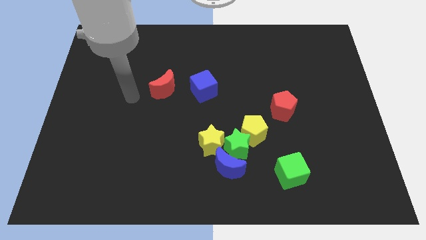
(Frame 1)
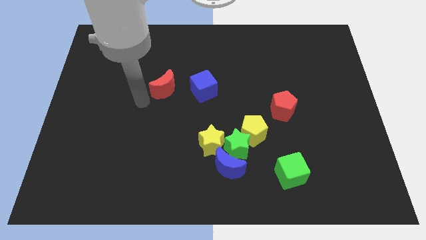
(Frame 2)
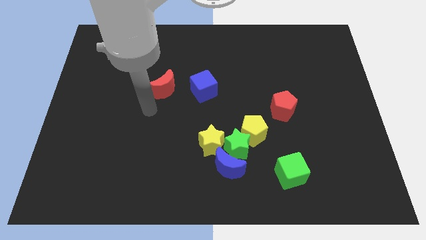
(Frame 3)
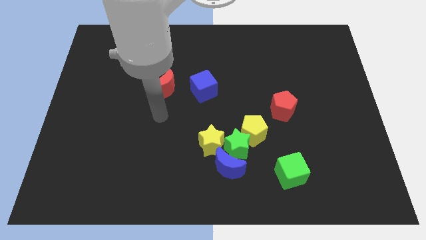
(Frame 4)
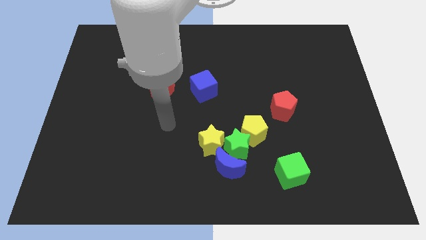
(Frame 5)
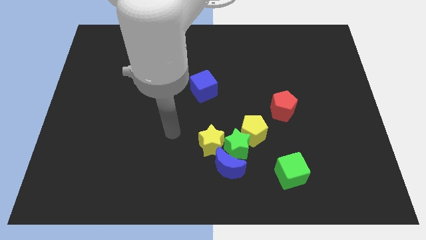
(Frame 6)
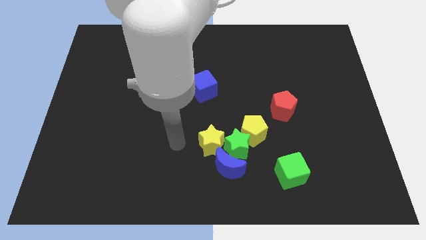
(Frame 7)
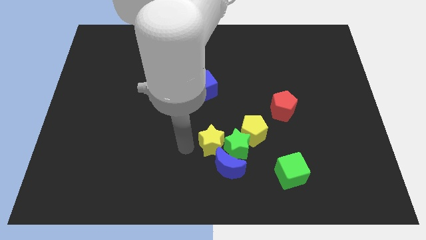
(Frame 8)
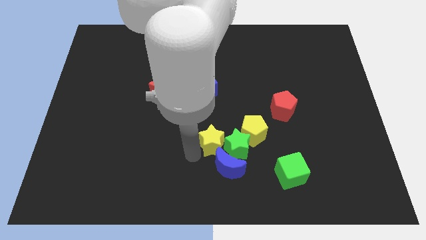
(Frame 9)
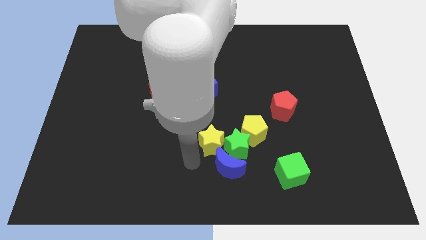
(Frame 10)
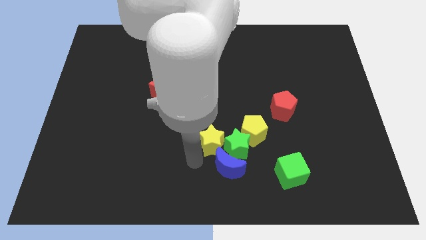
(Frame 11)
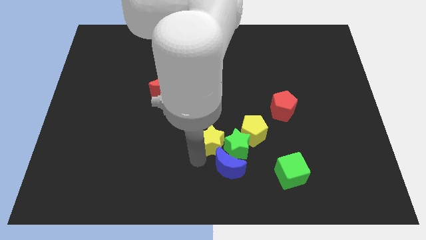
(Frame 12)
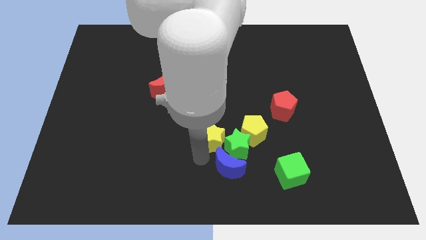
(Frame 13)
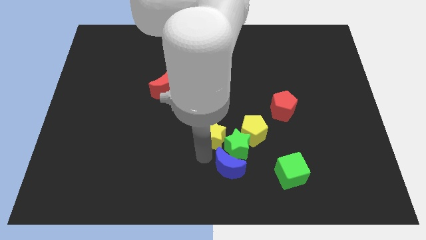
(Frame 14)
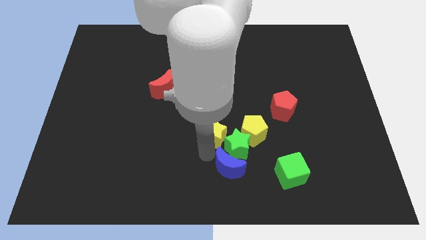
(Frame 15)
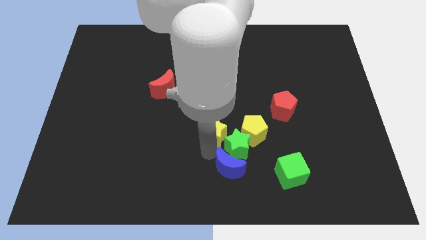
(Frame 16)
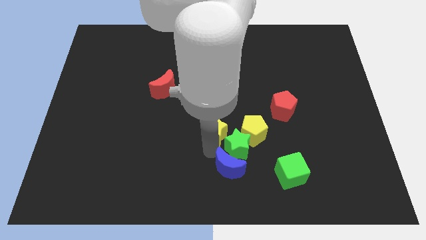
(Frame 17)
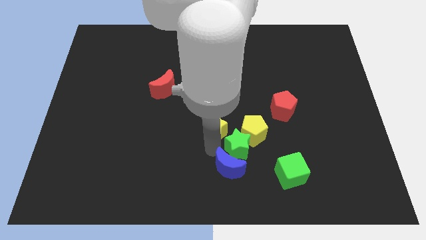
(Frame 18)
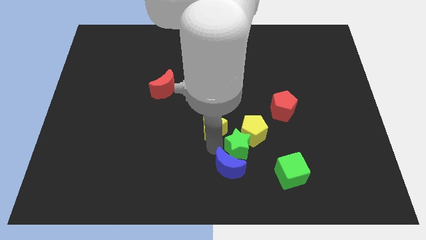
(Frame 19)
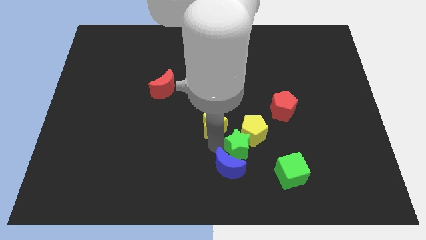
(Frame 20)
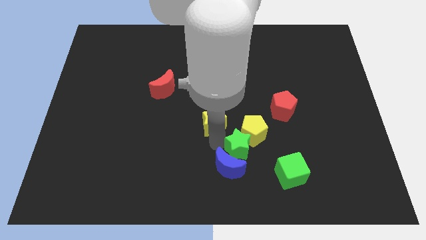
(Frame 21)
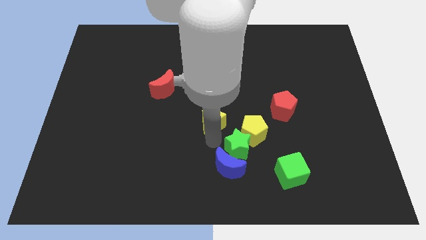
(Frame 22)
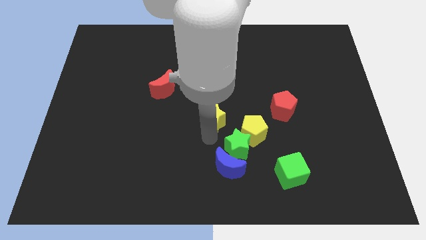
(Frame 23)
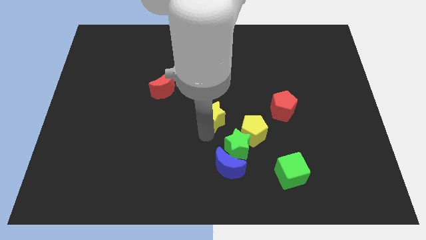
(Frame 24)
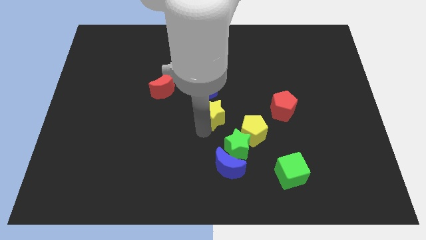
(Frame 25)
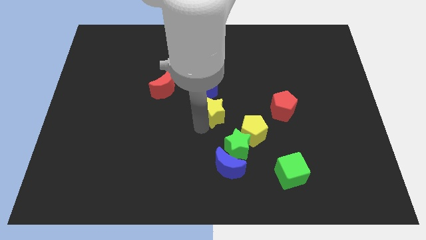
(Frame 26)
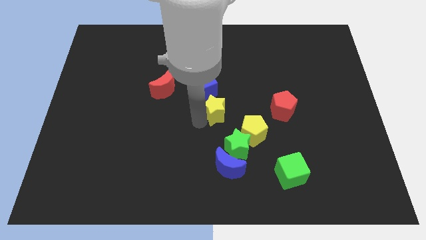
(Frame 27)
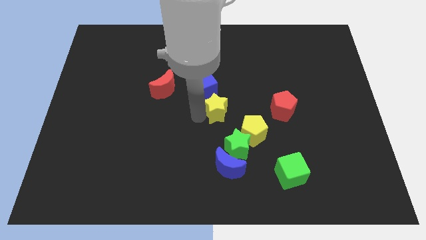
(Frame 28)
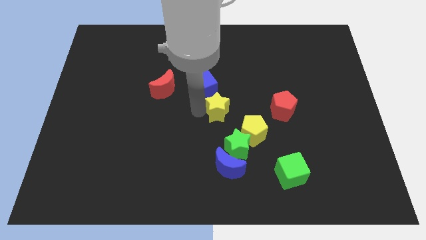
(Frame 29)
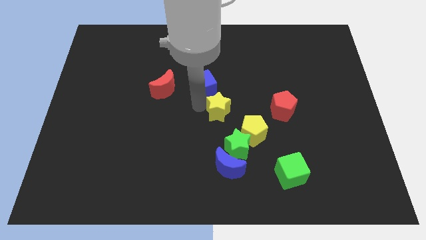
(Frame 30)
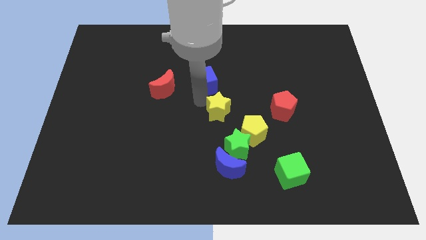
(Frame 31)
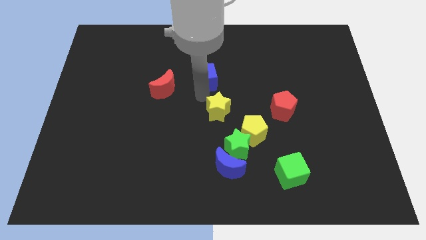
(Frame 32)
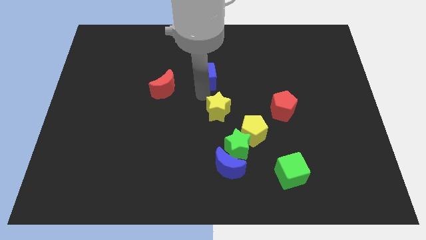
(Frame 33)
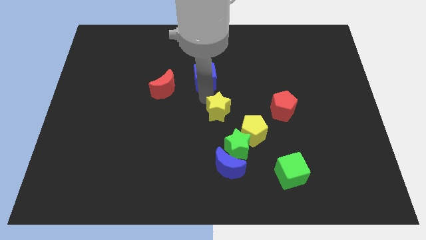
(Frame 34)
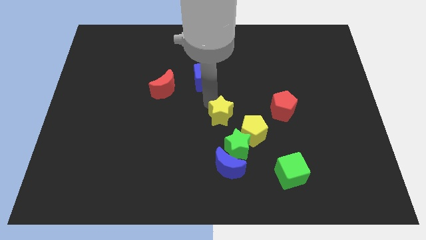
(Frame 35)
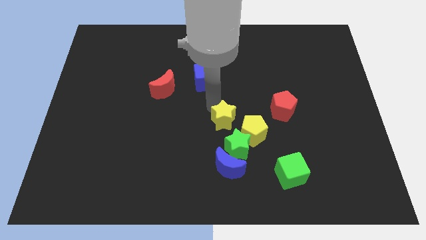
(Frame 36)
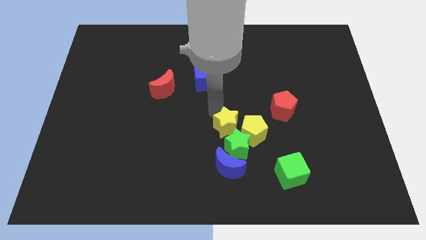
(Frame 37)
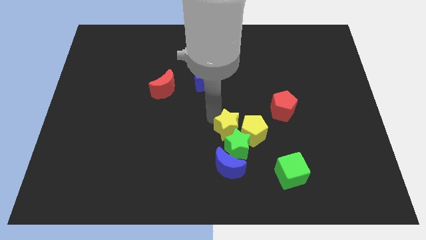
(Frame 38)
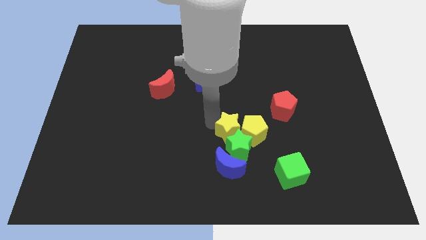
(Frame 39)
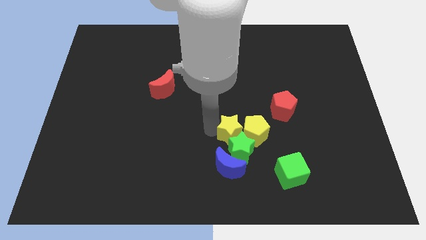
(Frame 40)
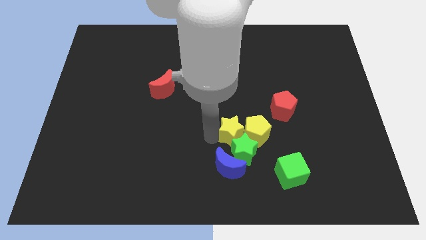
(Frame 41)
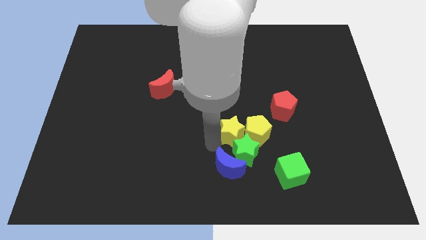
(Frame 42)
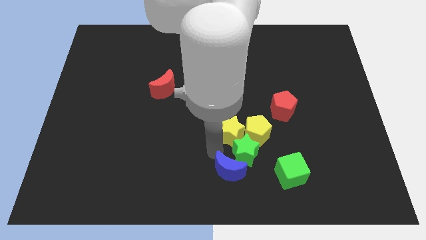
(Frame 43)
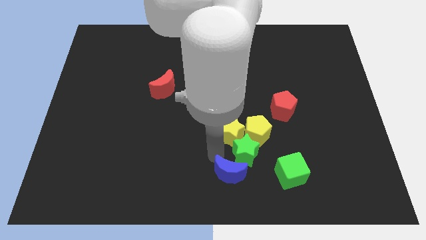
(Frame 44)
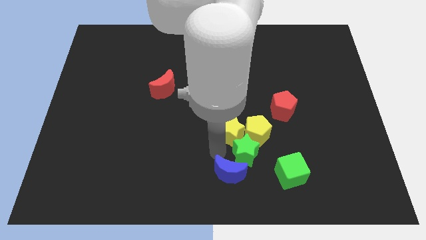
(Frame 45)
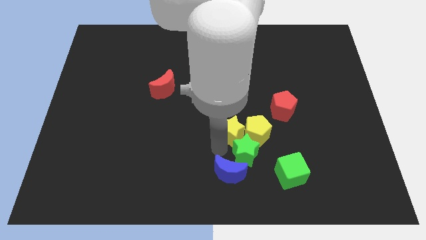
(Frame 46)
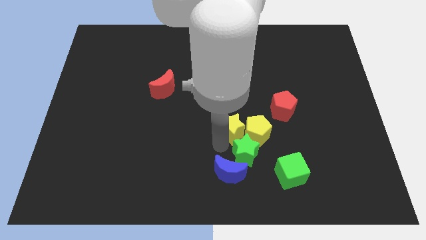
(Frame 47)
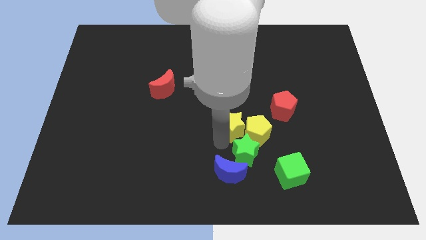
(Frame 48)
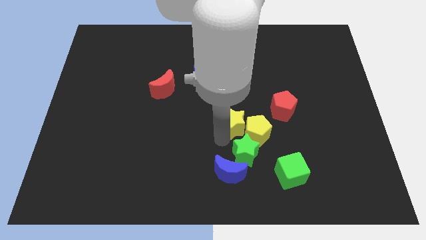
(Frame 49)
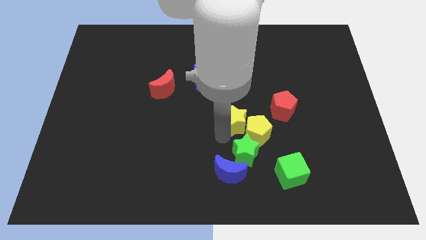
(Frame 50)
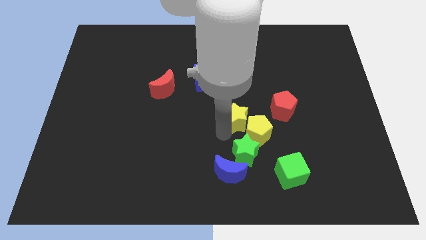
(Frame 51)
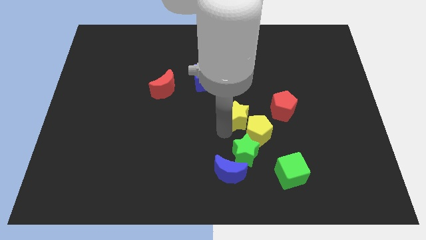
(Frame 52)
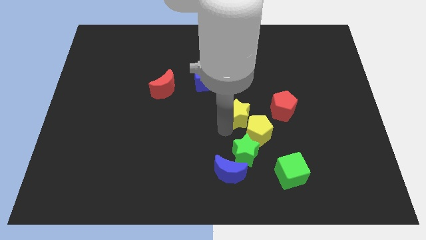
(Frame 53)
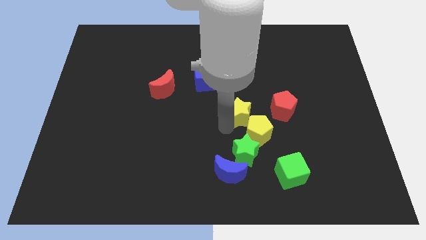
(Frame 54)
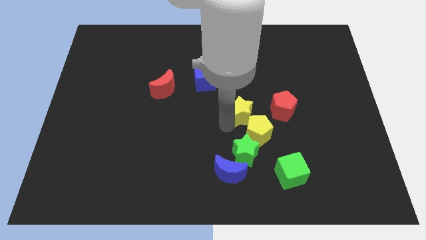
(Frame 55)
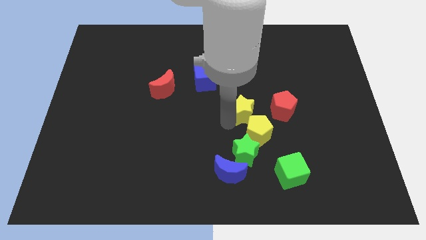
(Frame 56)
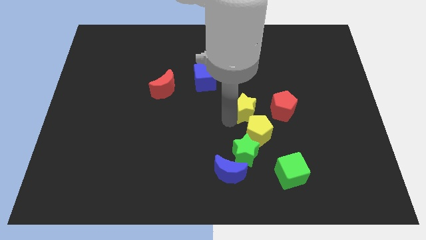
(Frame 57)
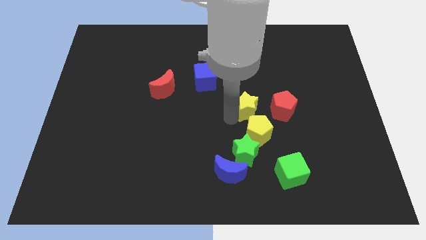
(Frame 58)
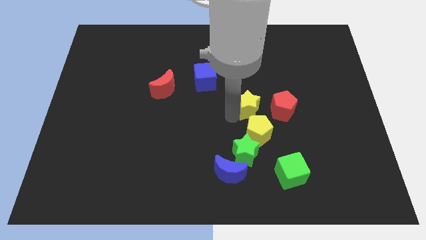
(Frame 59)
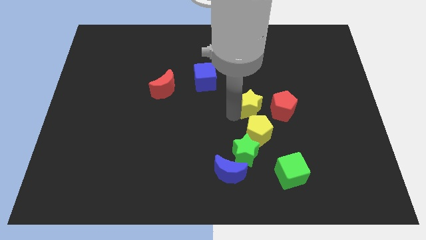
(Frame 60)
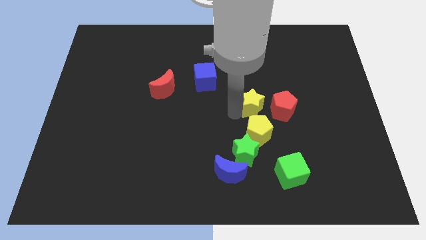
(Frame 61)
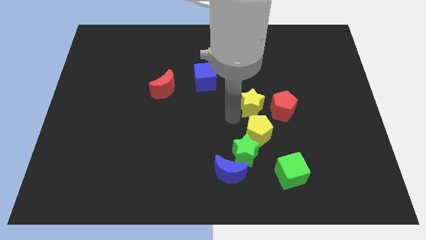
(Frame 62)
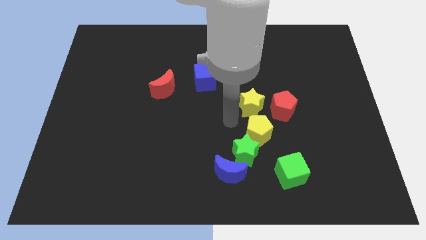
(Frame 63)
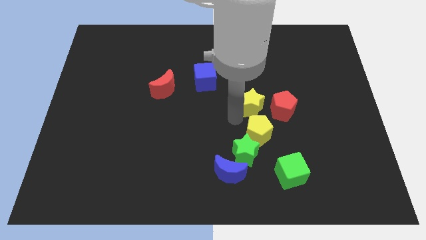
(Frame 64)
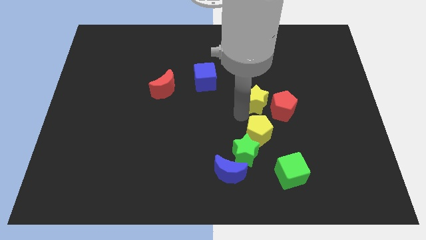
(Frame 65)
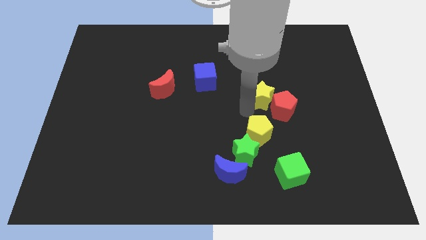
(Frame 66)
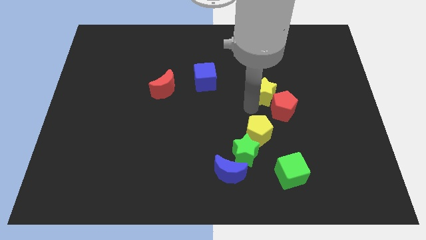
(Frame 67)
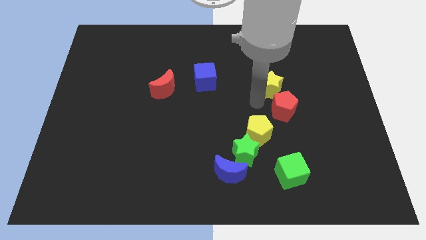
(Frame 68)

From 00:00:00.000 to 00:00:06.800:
move the yellow star upwards and then right

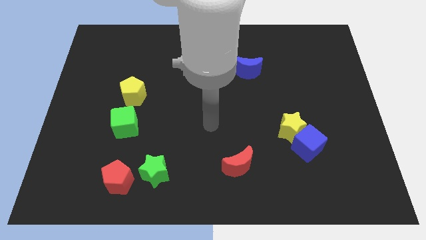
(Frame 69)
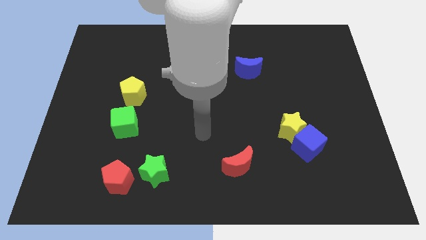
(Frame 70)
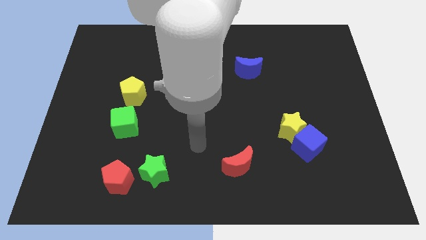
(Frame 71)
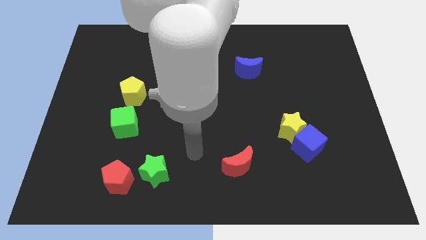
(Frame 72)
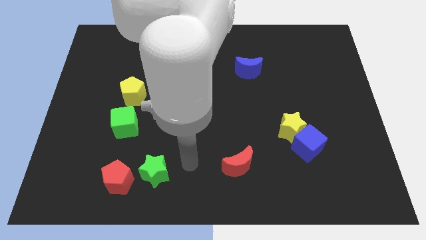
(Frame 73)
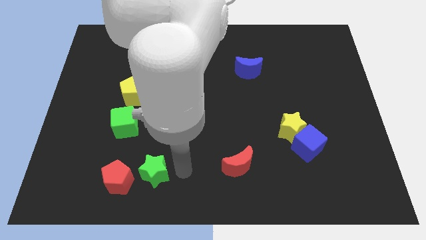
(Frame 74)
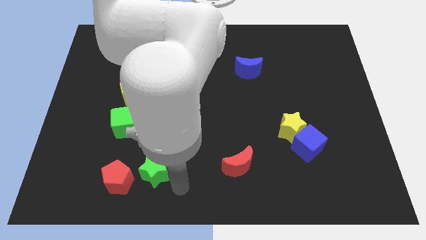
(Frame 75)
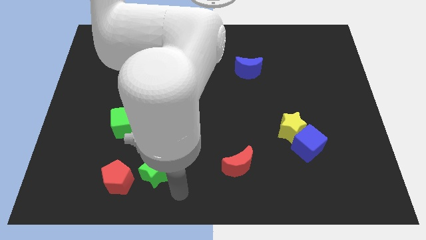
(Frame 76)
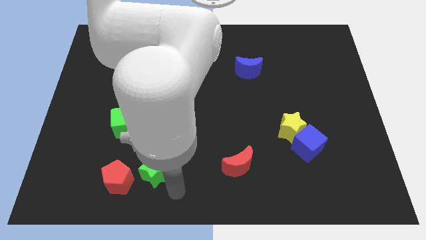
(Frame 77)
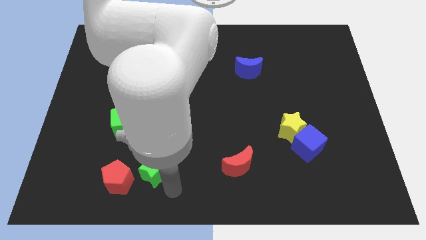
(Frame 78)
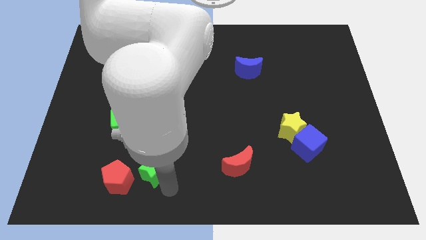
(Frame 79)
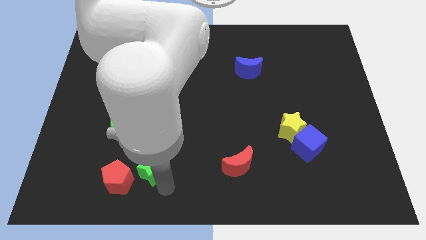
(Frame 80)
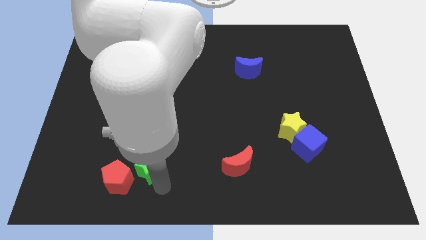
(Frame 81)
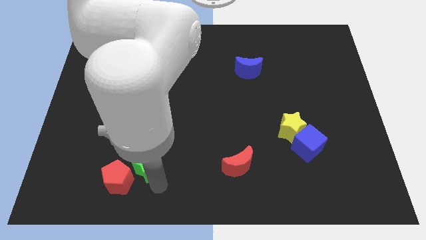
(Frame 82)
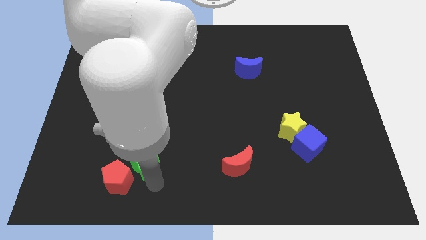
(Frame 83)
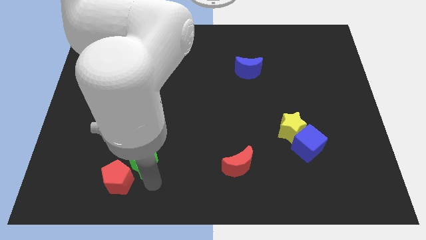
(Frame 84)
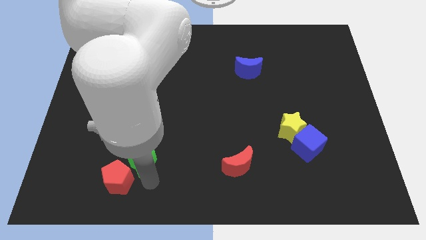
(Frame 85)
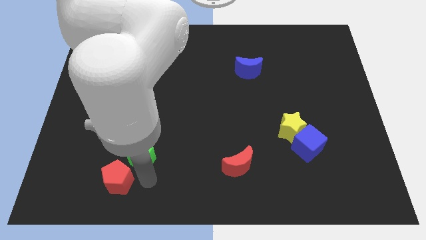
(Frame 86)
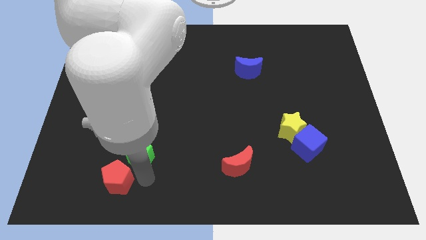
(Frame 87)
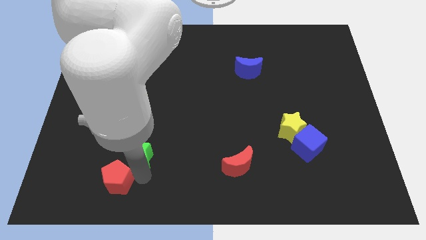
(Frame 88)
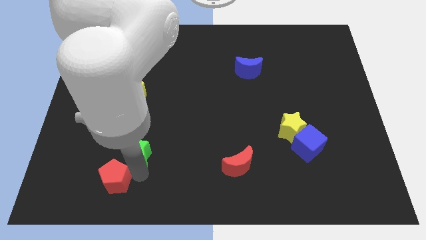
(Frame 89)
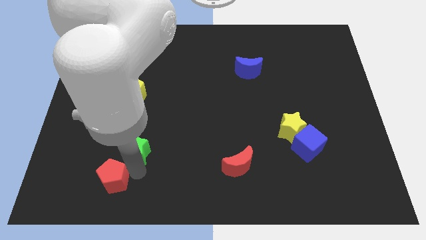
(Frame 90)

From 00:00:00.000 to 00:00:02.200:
push the green star a little bit upwards and to the left
